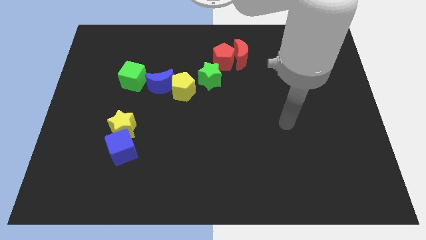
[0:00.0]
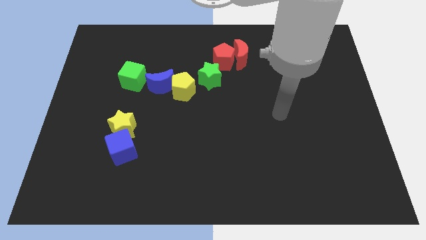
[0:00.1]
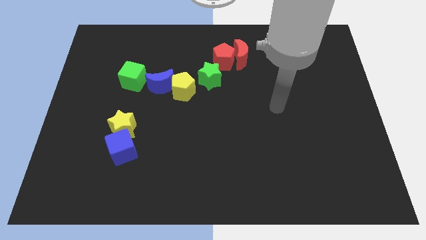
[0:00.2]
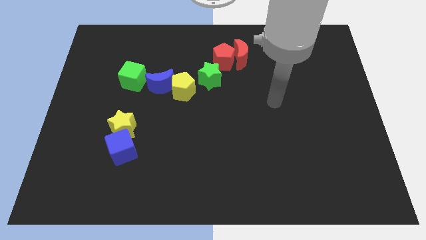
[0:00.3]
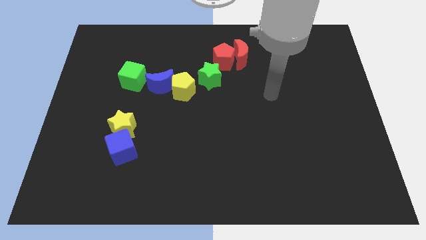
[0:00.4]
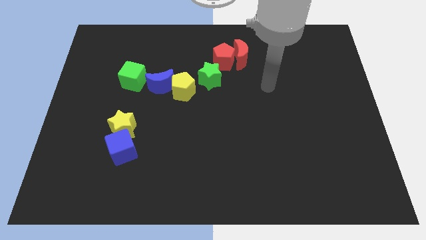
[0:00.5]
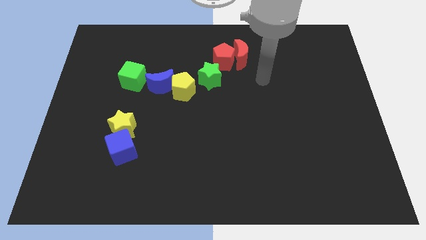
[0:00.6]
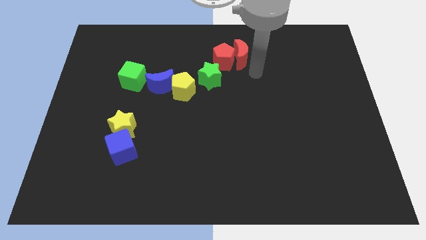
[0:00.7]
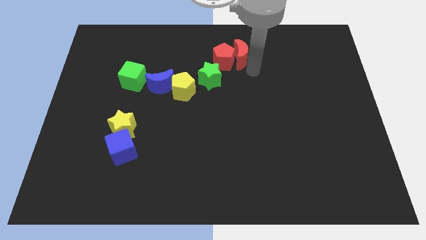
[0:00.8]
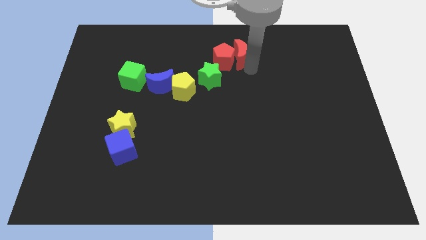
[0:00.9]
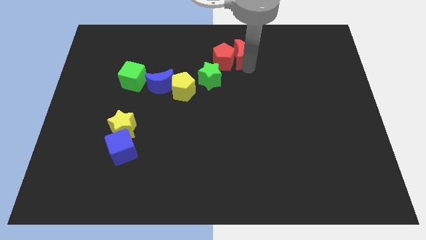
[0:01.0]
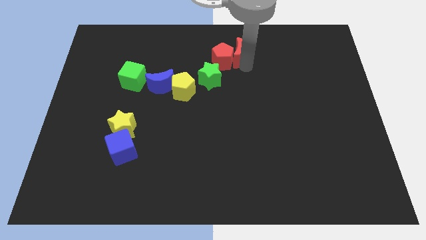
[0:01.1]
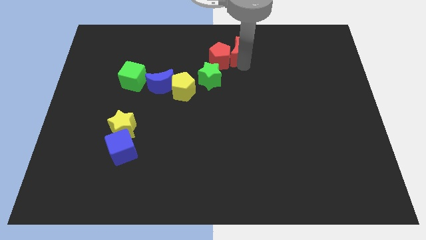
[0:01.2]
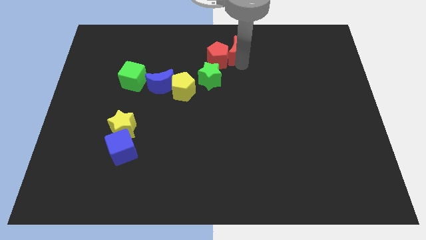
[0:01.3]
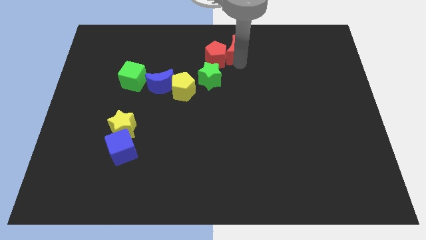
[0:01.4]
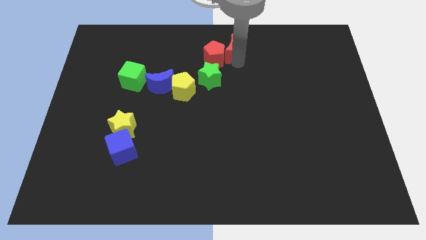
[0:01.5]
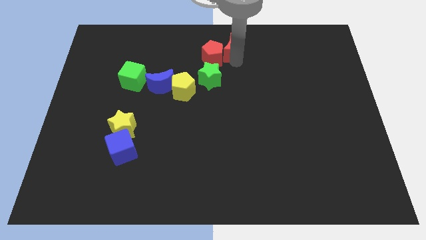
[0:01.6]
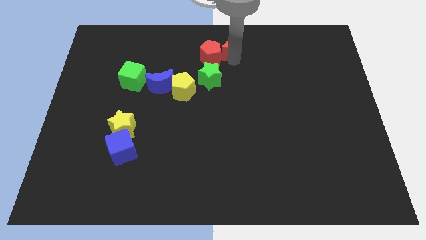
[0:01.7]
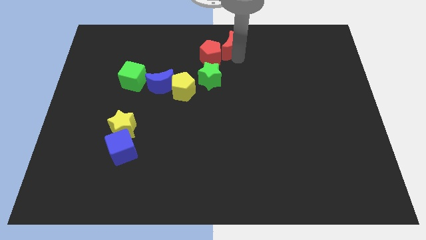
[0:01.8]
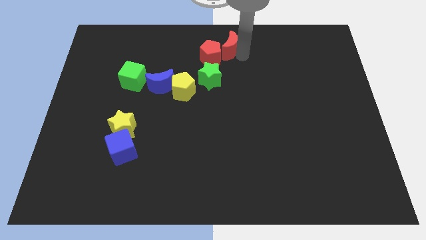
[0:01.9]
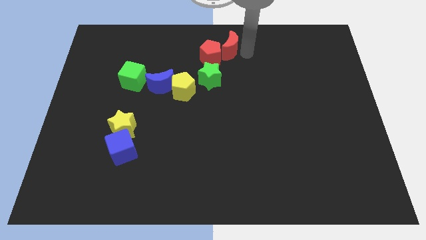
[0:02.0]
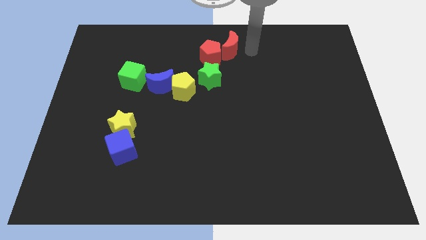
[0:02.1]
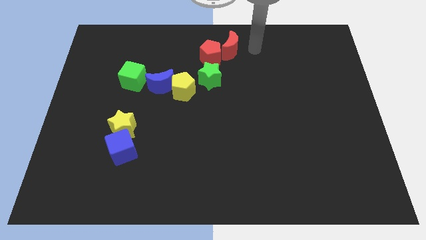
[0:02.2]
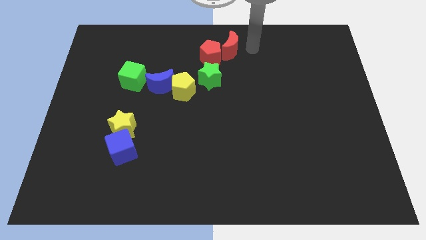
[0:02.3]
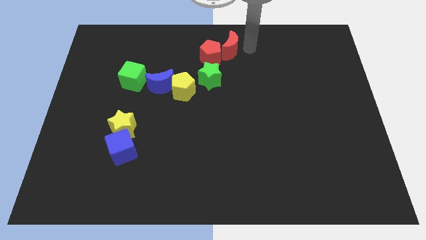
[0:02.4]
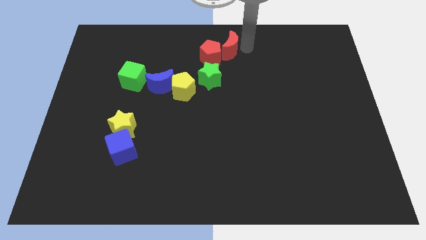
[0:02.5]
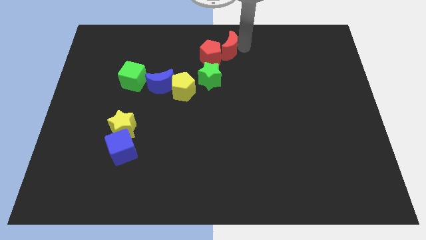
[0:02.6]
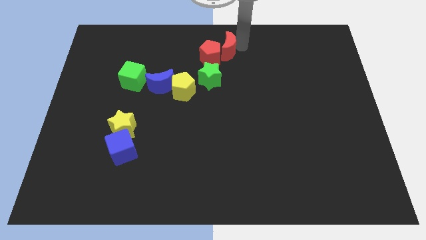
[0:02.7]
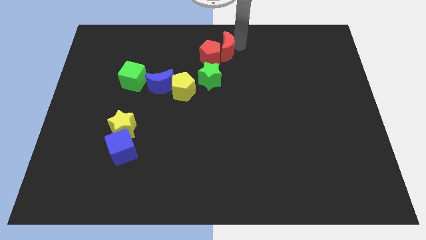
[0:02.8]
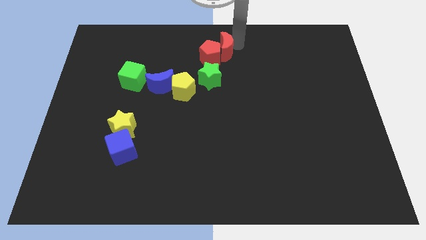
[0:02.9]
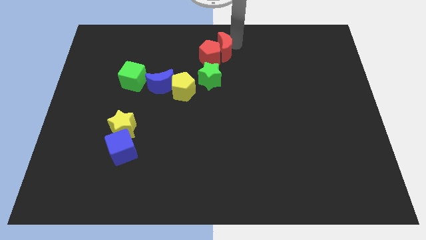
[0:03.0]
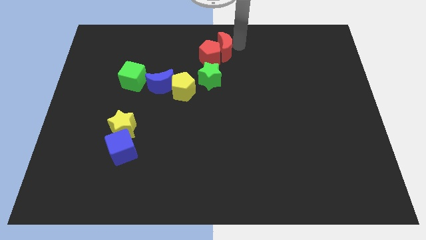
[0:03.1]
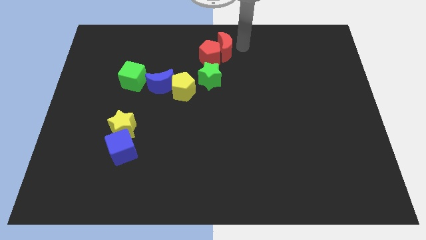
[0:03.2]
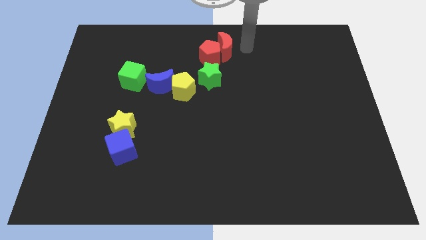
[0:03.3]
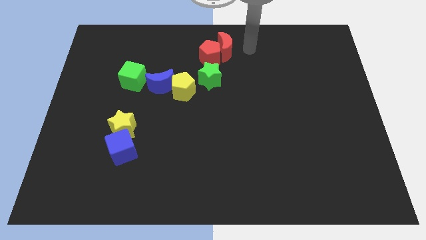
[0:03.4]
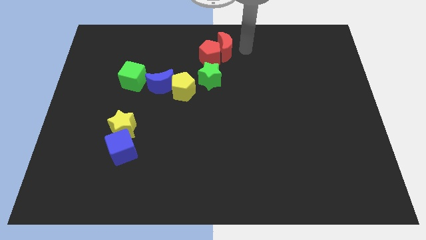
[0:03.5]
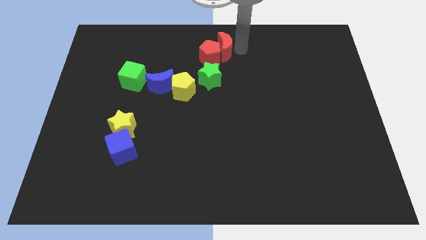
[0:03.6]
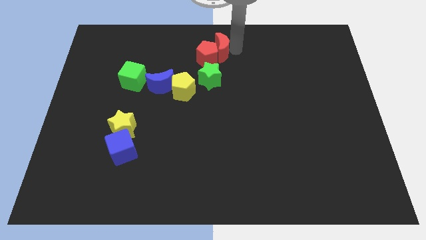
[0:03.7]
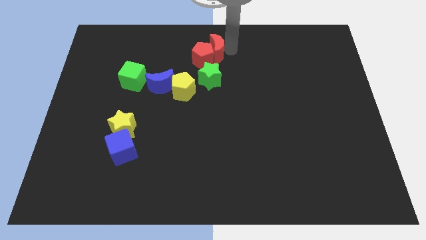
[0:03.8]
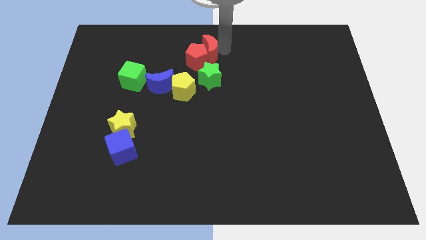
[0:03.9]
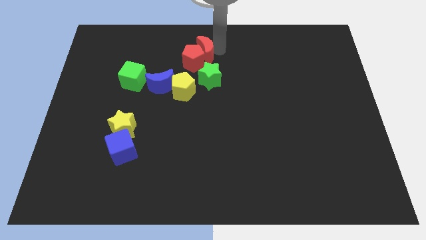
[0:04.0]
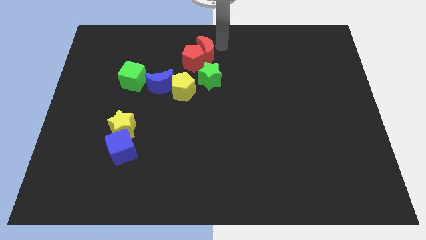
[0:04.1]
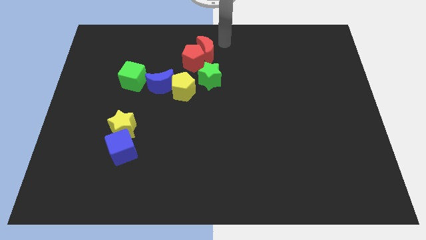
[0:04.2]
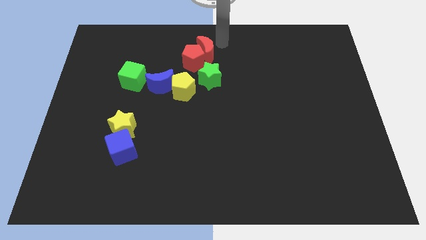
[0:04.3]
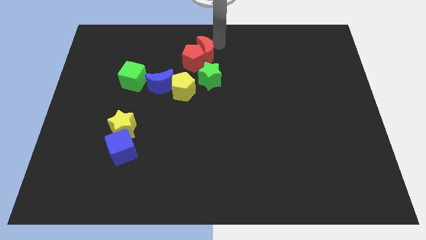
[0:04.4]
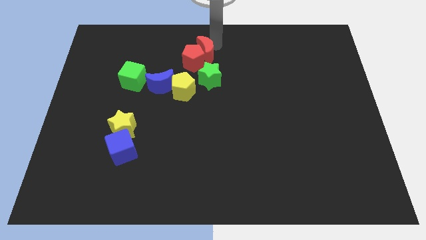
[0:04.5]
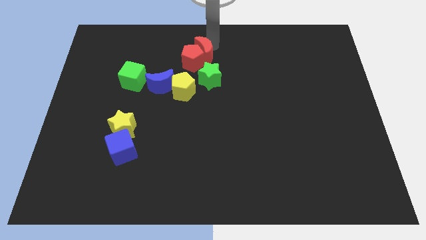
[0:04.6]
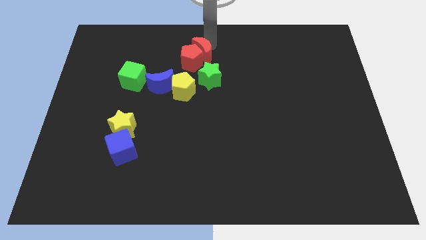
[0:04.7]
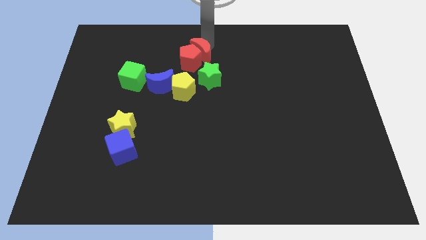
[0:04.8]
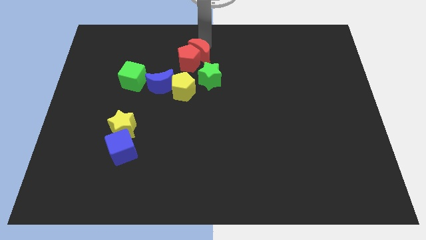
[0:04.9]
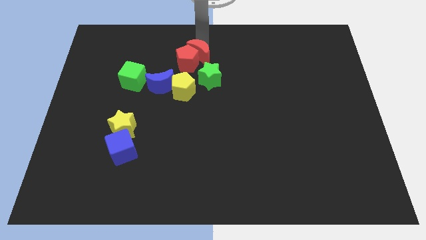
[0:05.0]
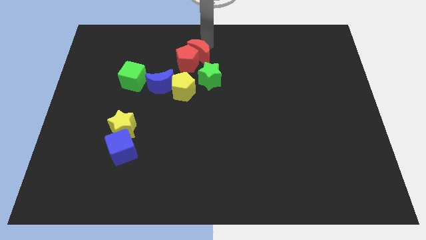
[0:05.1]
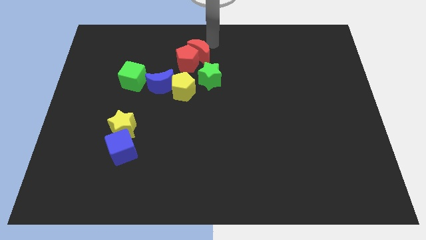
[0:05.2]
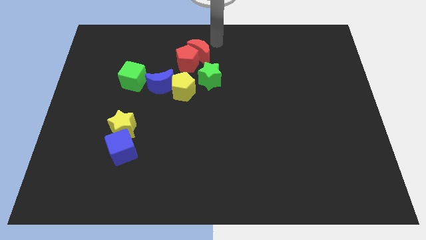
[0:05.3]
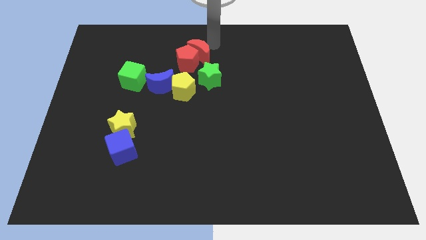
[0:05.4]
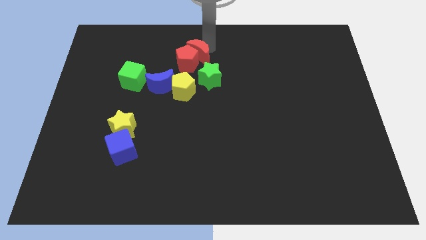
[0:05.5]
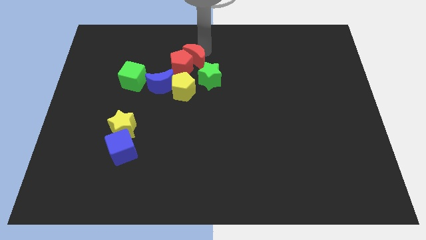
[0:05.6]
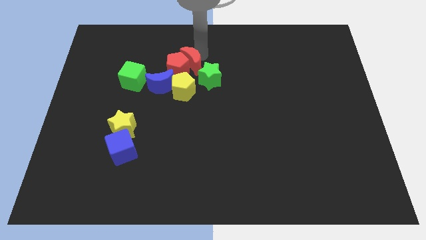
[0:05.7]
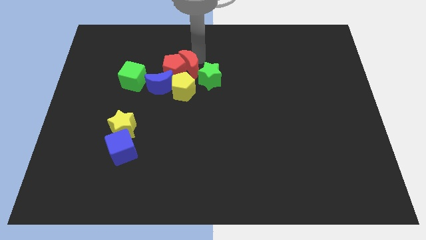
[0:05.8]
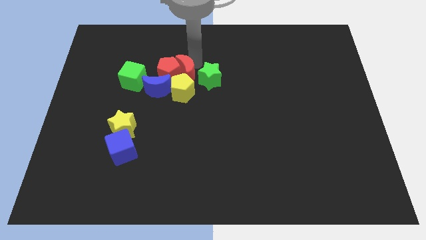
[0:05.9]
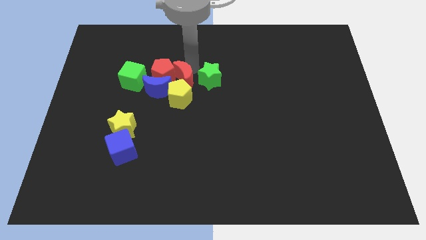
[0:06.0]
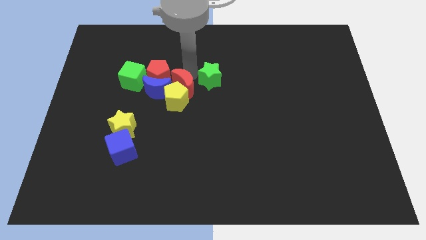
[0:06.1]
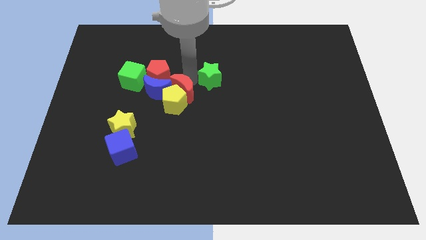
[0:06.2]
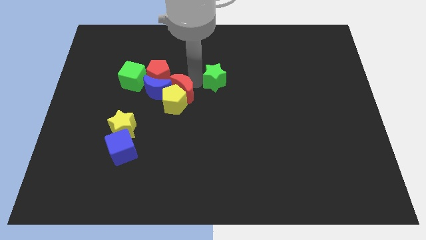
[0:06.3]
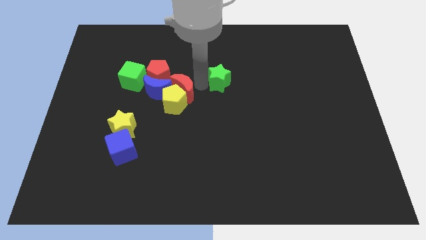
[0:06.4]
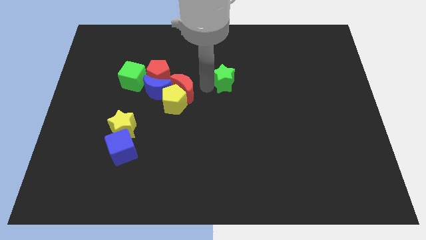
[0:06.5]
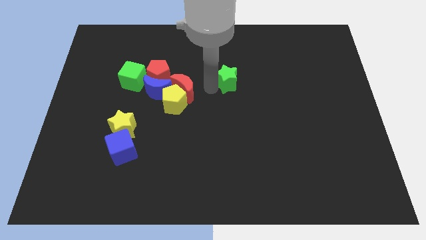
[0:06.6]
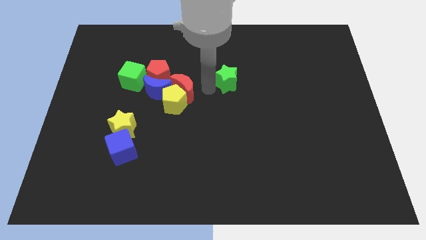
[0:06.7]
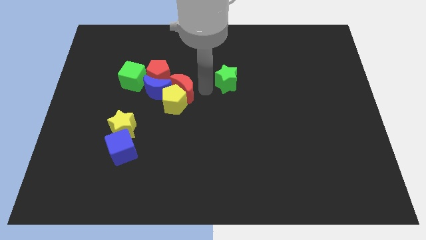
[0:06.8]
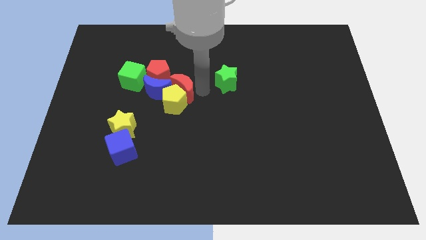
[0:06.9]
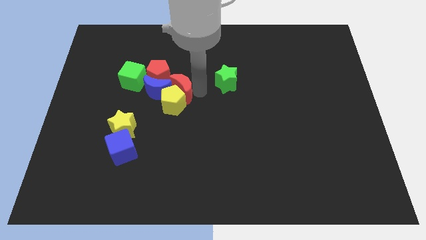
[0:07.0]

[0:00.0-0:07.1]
push the red moon to the blue moon
